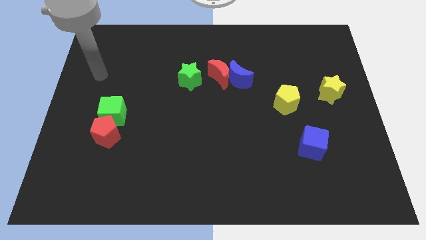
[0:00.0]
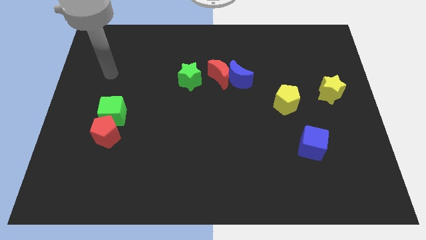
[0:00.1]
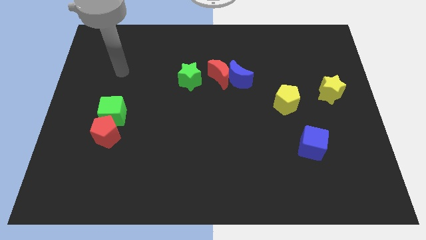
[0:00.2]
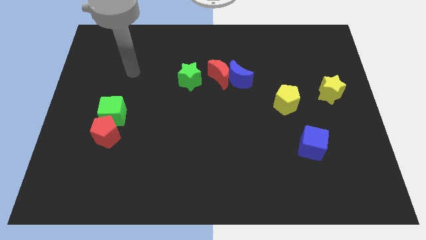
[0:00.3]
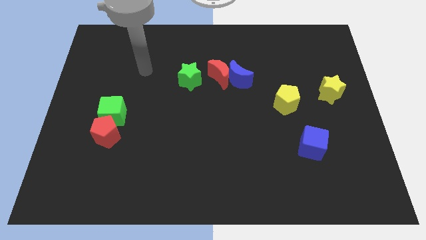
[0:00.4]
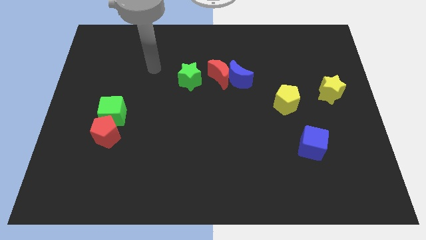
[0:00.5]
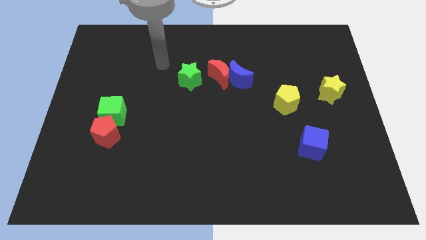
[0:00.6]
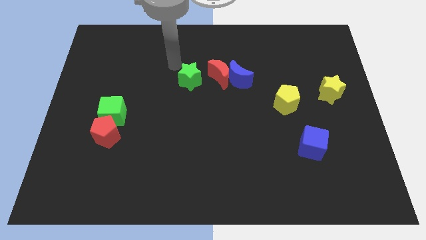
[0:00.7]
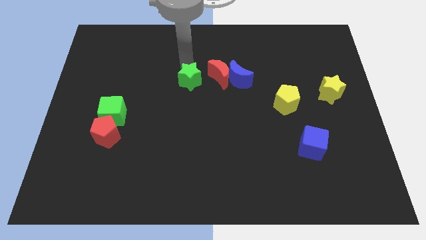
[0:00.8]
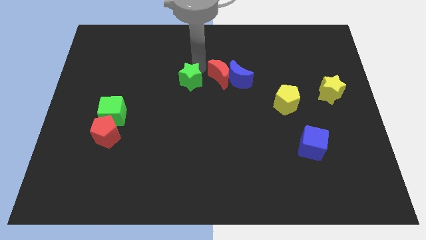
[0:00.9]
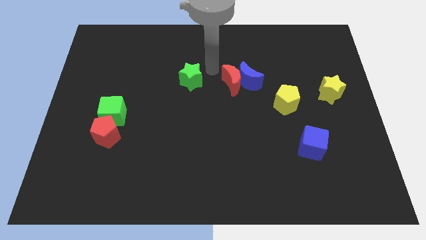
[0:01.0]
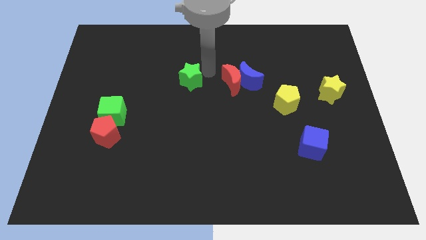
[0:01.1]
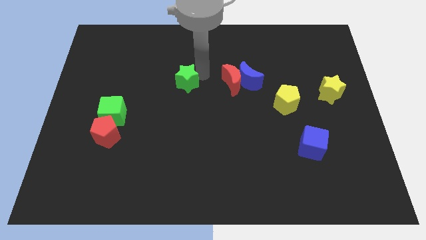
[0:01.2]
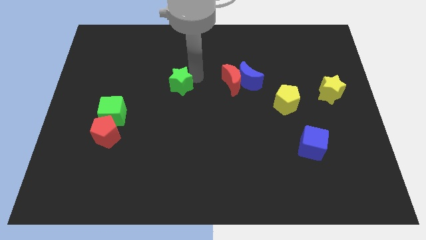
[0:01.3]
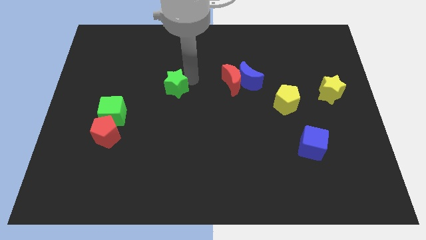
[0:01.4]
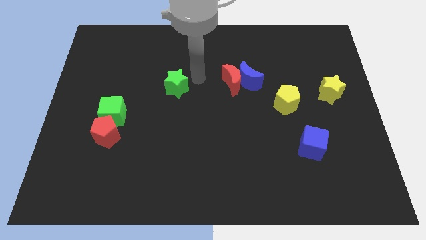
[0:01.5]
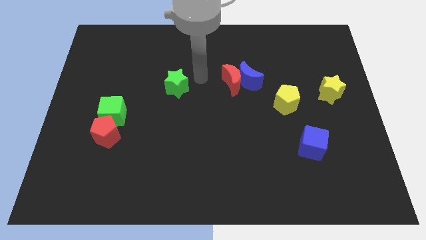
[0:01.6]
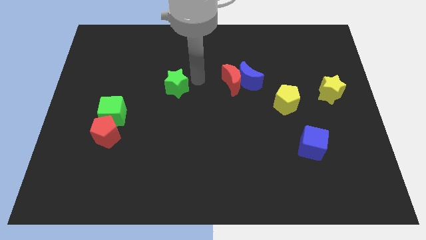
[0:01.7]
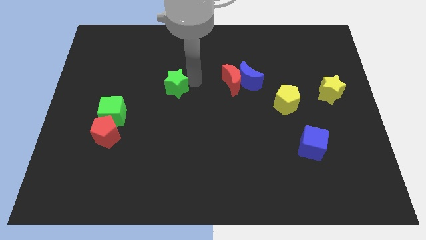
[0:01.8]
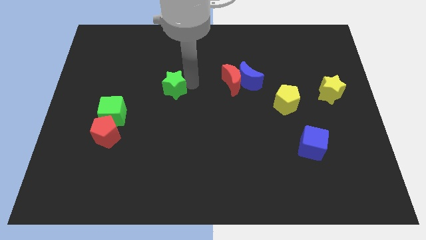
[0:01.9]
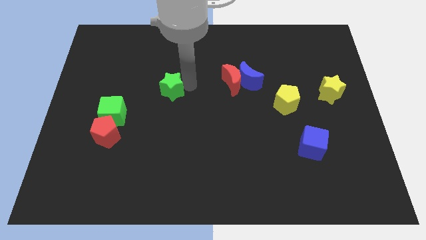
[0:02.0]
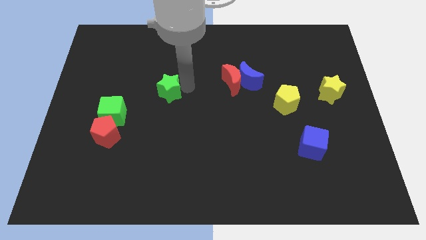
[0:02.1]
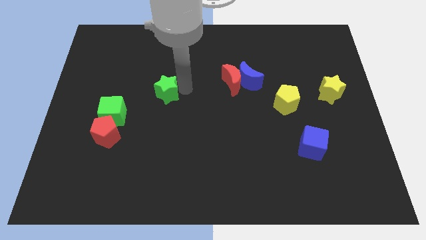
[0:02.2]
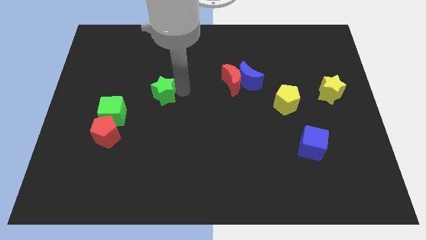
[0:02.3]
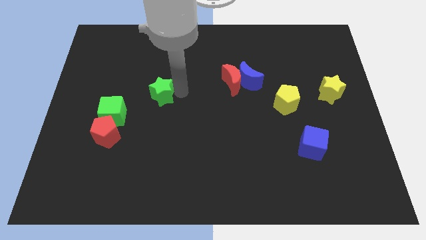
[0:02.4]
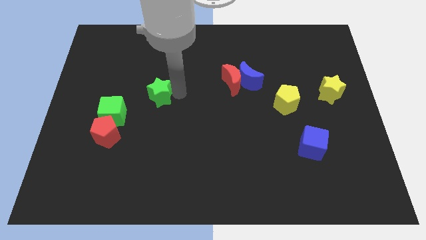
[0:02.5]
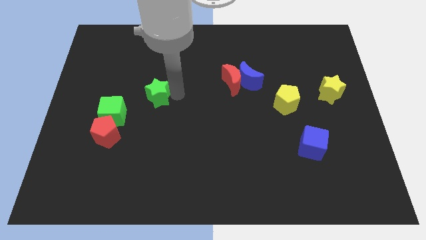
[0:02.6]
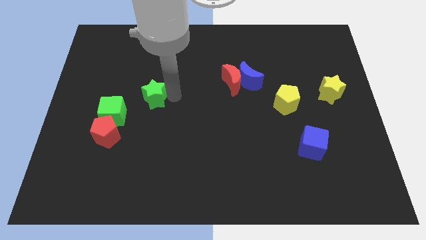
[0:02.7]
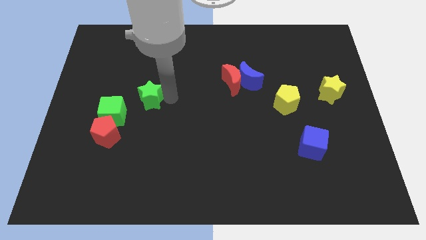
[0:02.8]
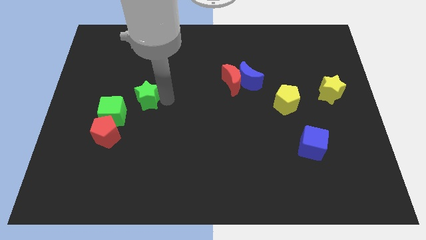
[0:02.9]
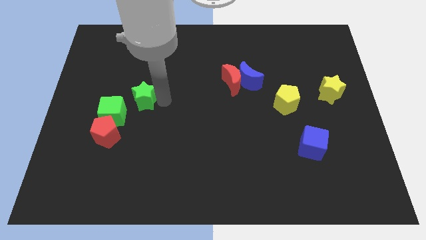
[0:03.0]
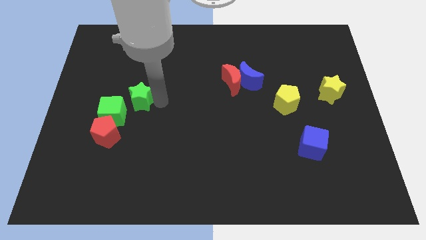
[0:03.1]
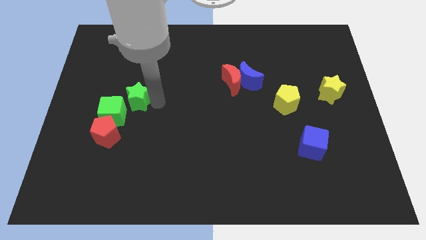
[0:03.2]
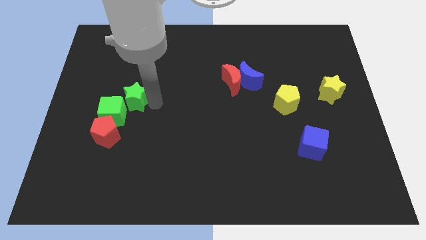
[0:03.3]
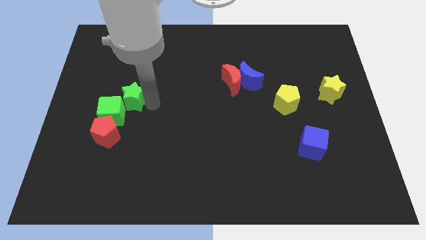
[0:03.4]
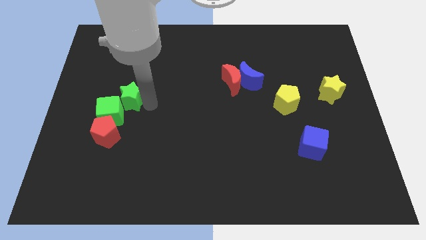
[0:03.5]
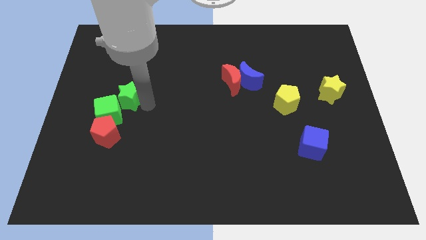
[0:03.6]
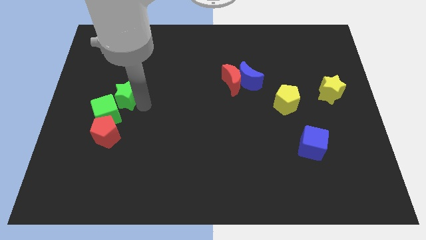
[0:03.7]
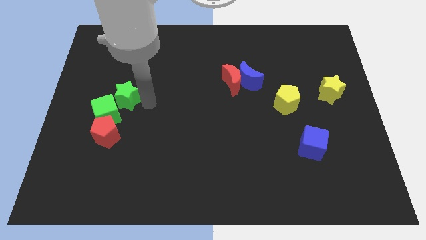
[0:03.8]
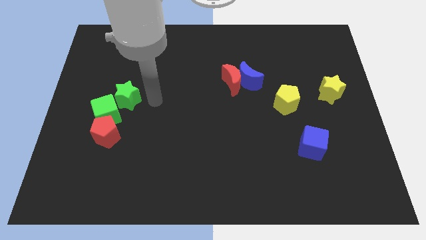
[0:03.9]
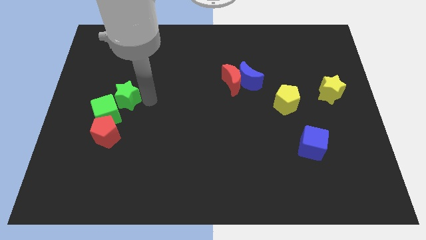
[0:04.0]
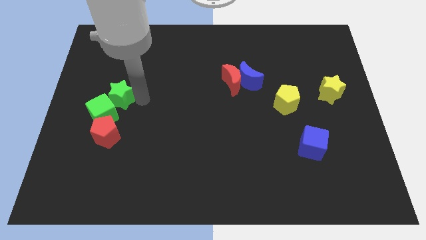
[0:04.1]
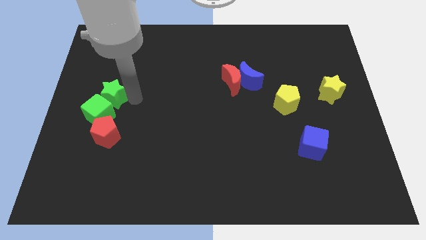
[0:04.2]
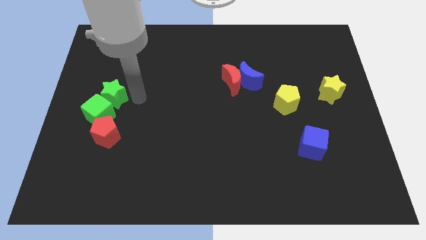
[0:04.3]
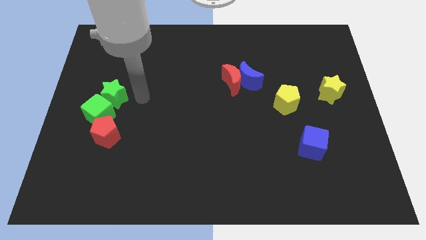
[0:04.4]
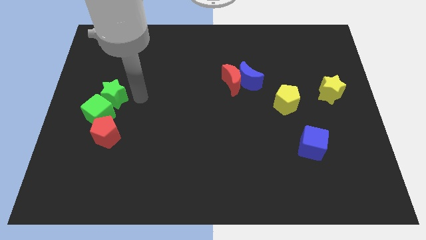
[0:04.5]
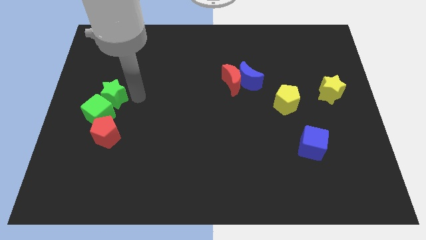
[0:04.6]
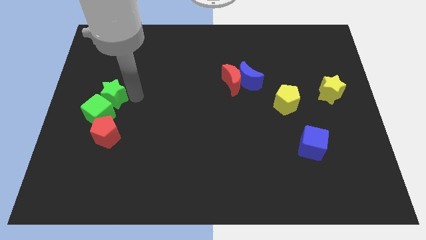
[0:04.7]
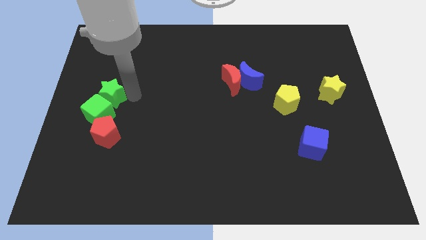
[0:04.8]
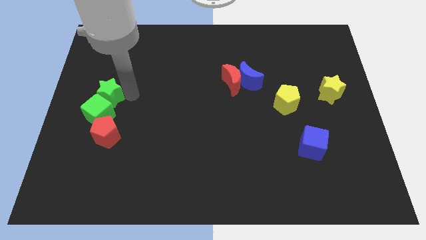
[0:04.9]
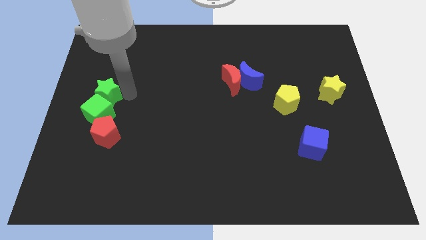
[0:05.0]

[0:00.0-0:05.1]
push the green star to the center left

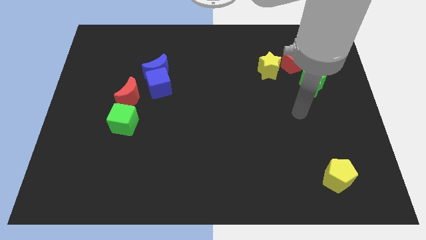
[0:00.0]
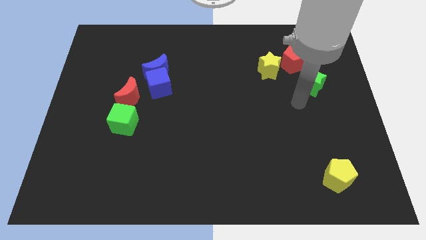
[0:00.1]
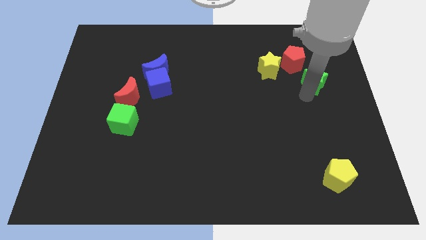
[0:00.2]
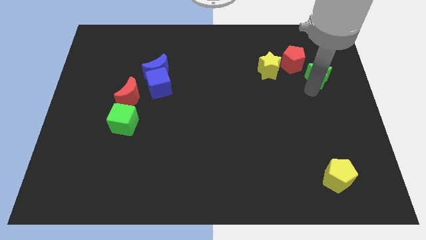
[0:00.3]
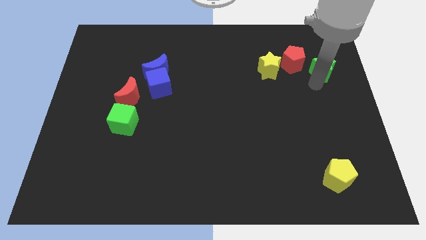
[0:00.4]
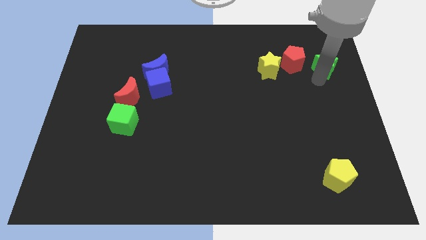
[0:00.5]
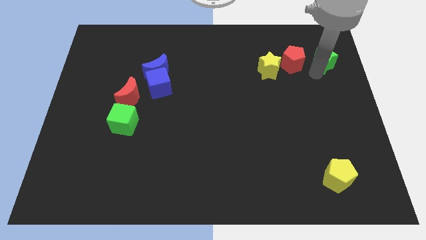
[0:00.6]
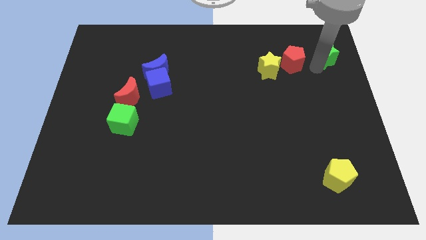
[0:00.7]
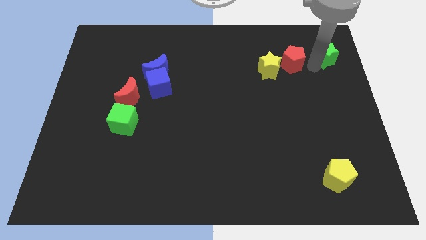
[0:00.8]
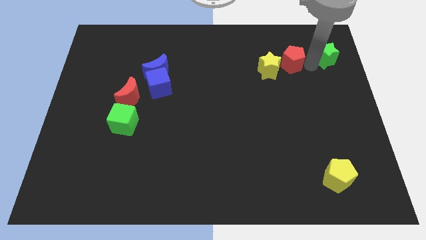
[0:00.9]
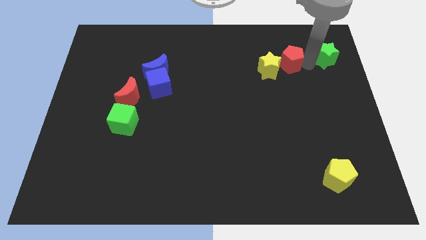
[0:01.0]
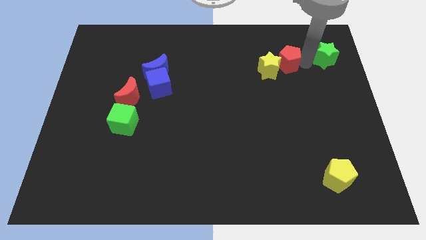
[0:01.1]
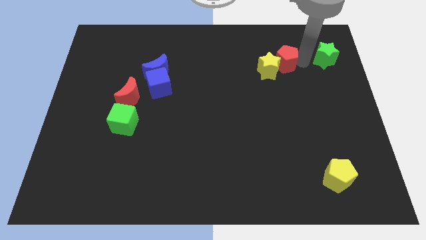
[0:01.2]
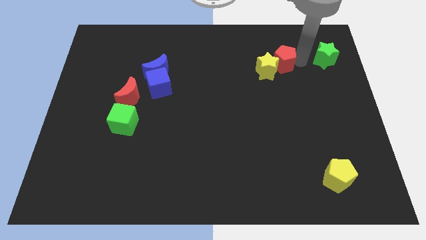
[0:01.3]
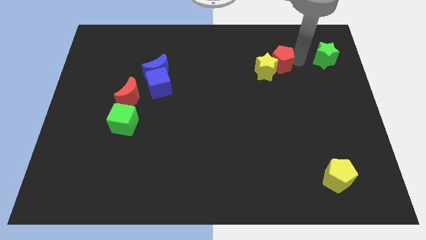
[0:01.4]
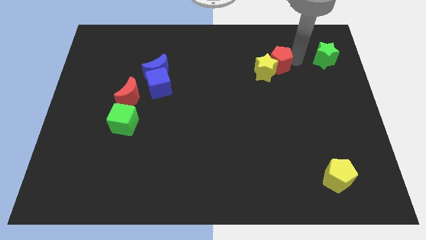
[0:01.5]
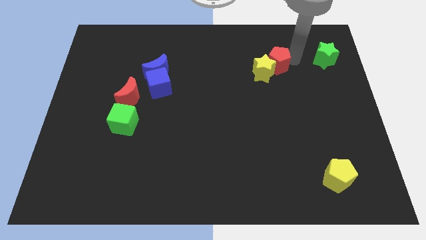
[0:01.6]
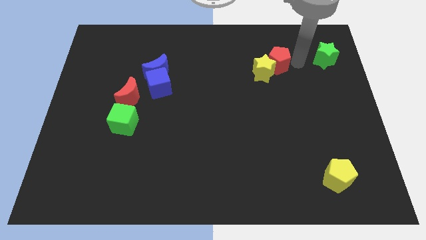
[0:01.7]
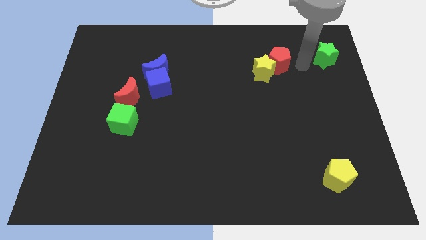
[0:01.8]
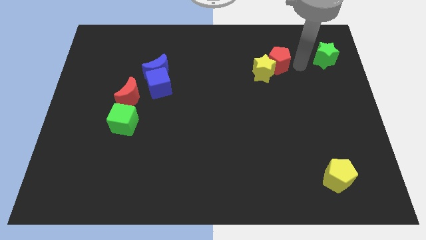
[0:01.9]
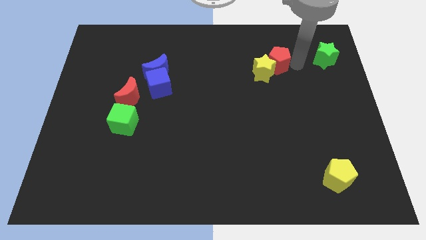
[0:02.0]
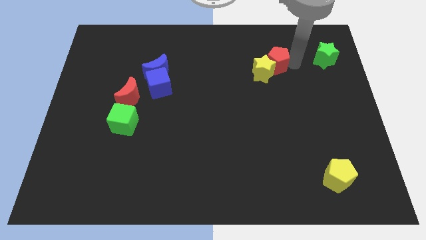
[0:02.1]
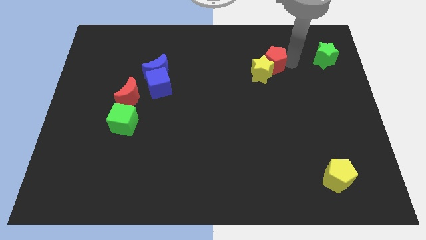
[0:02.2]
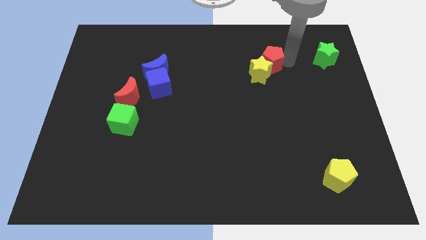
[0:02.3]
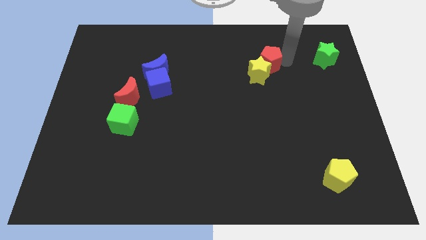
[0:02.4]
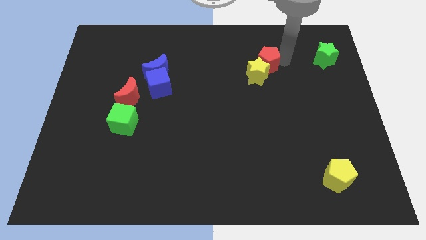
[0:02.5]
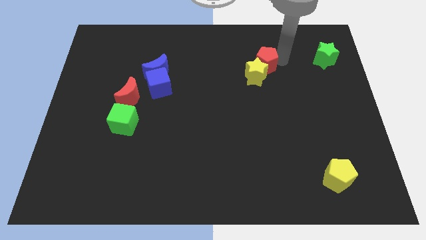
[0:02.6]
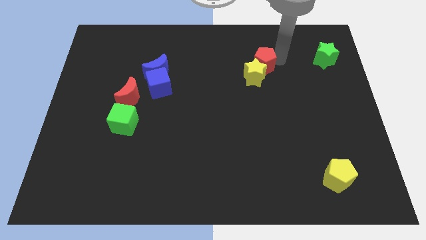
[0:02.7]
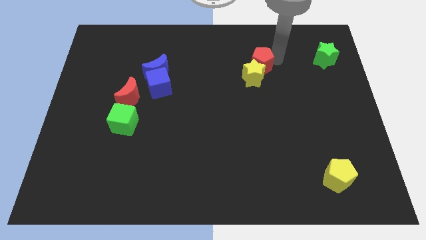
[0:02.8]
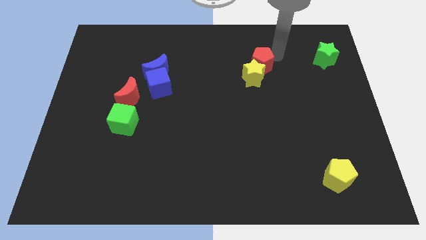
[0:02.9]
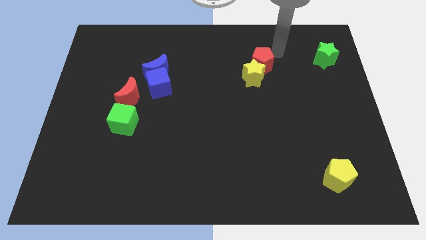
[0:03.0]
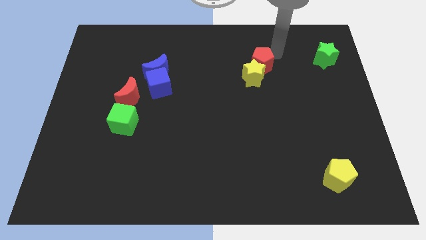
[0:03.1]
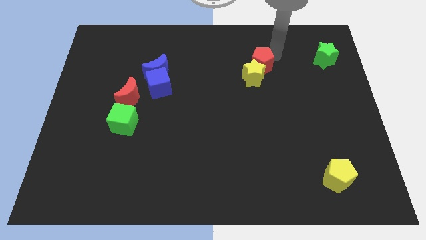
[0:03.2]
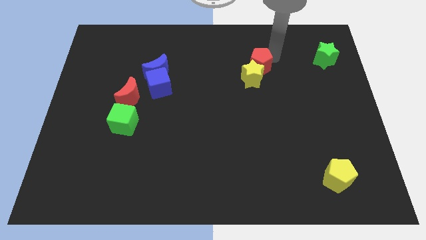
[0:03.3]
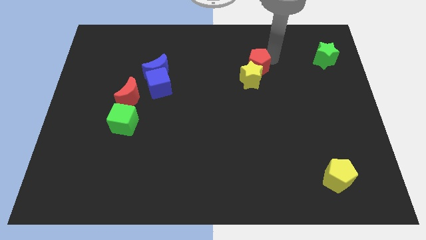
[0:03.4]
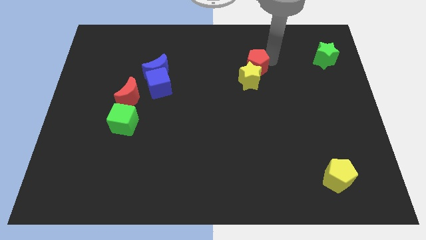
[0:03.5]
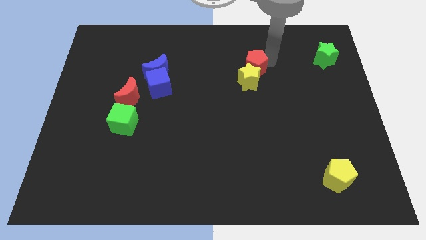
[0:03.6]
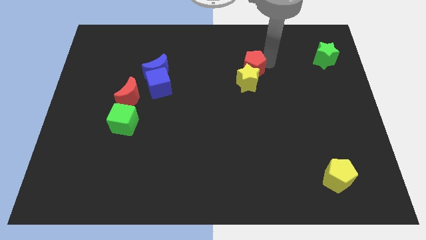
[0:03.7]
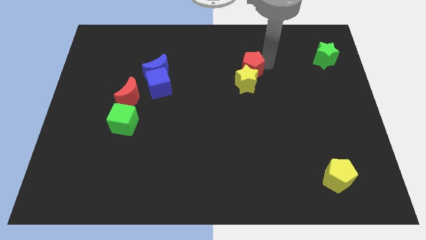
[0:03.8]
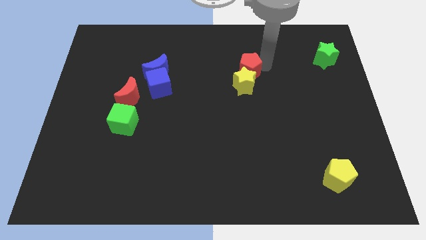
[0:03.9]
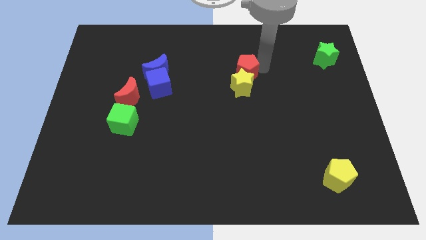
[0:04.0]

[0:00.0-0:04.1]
move the red pentagon to the middle
